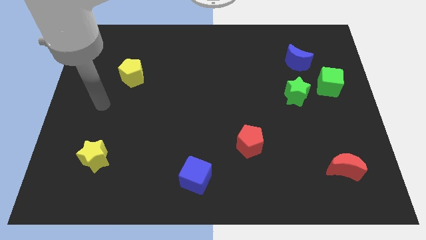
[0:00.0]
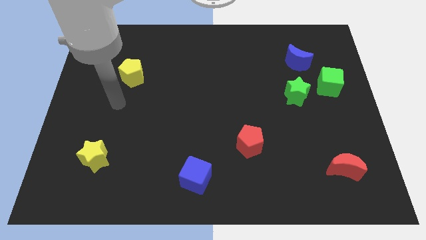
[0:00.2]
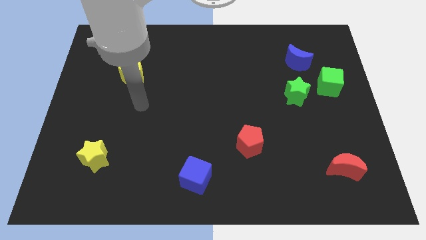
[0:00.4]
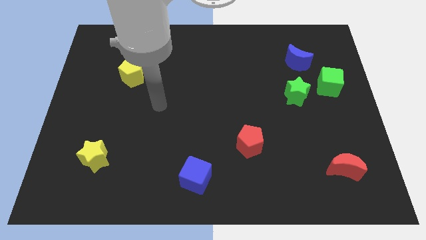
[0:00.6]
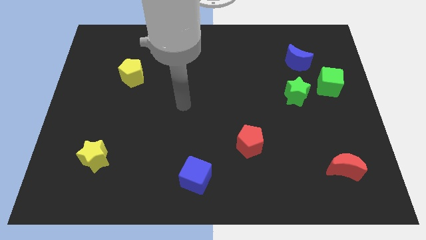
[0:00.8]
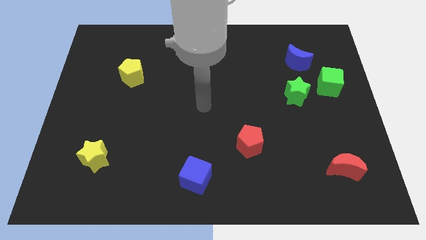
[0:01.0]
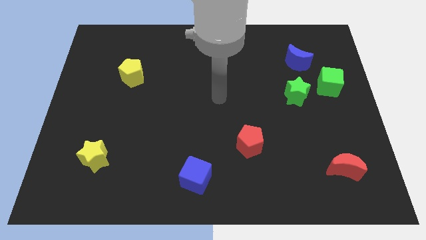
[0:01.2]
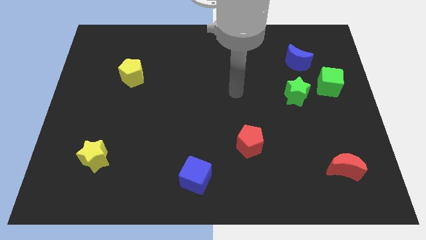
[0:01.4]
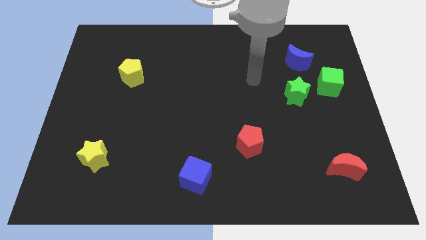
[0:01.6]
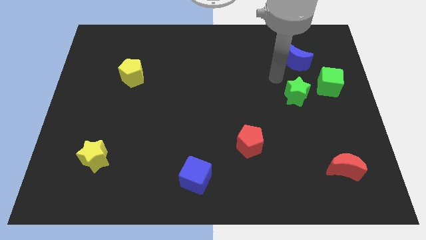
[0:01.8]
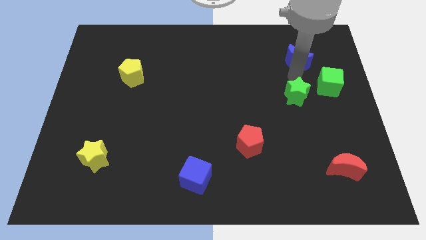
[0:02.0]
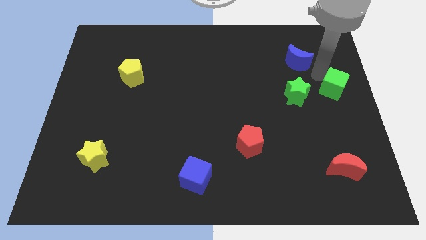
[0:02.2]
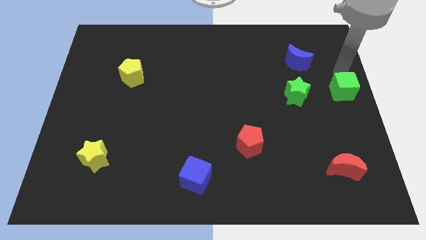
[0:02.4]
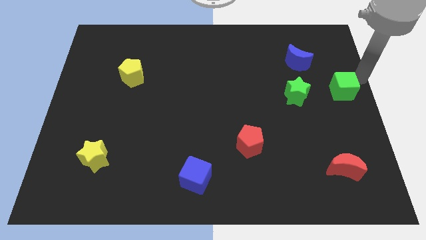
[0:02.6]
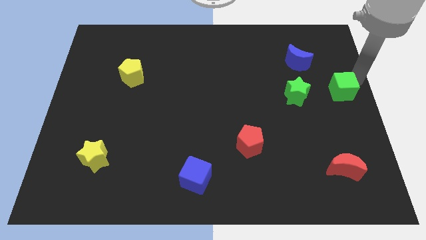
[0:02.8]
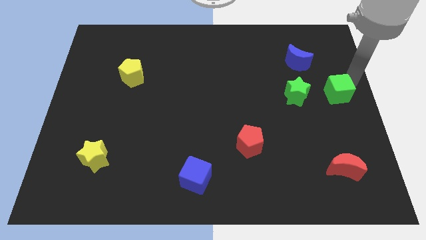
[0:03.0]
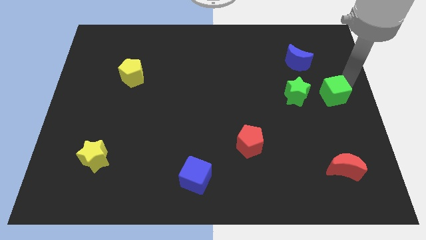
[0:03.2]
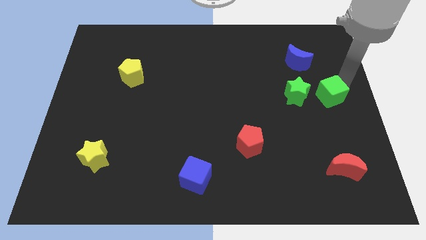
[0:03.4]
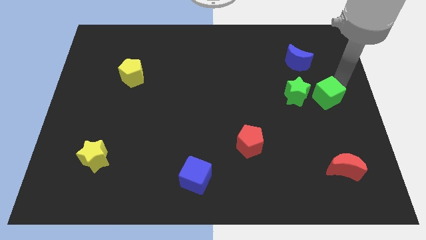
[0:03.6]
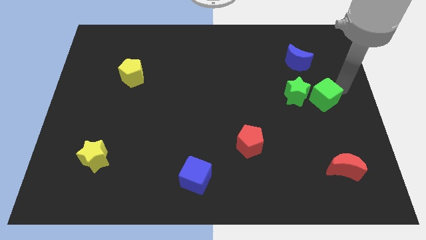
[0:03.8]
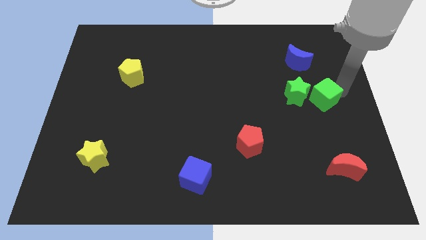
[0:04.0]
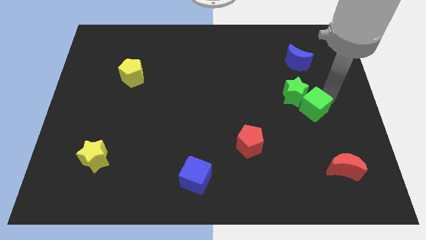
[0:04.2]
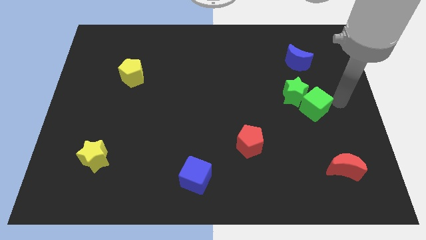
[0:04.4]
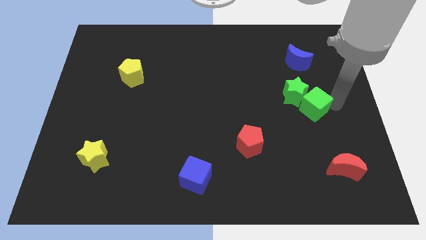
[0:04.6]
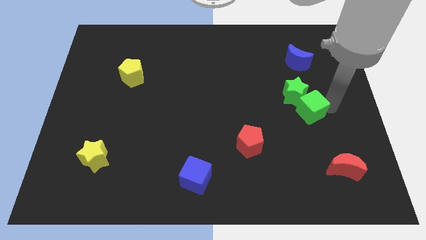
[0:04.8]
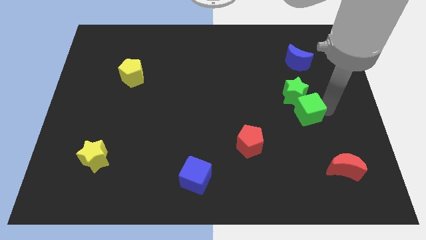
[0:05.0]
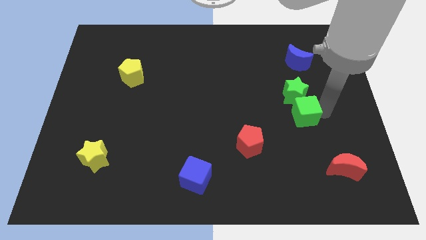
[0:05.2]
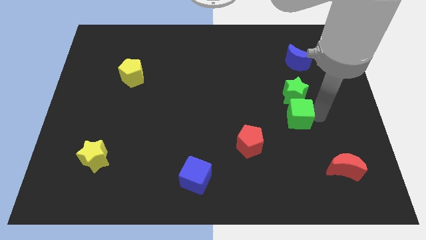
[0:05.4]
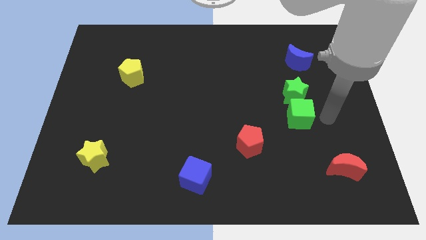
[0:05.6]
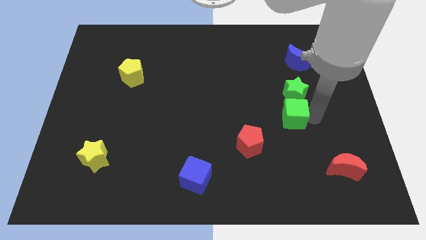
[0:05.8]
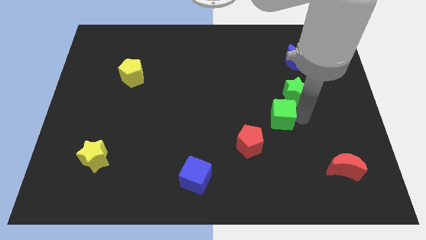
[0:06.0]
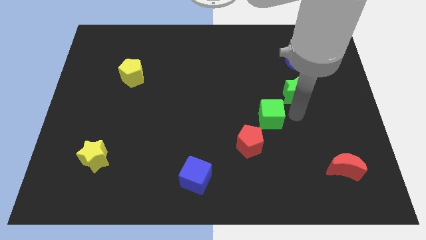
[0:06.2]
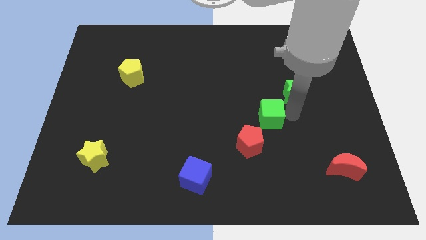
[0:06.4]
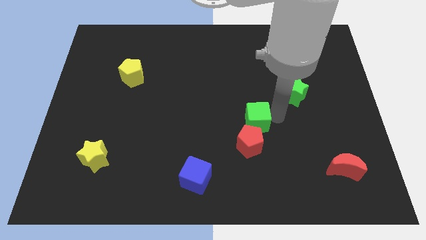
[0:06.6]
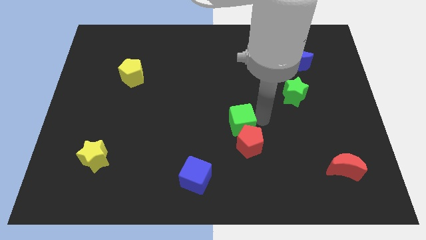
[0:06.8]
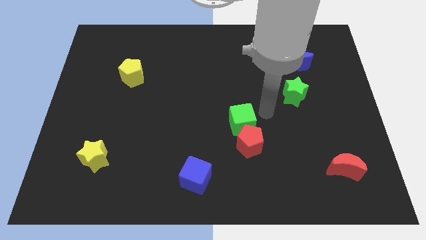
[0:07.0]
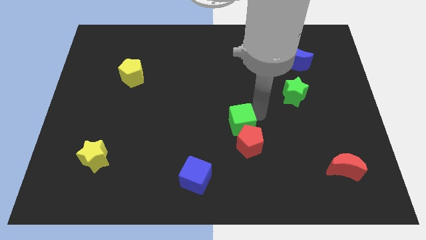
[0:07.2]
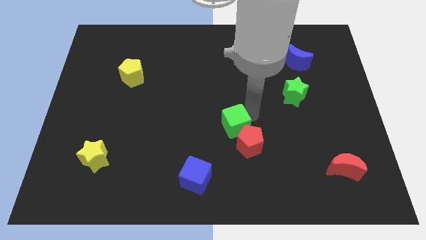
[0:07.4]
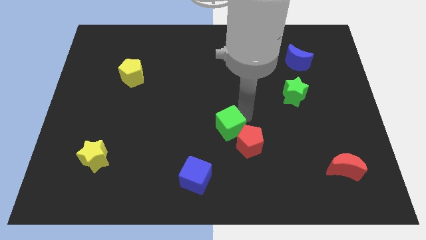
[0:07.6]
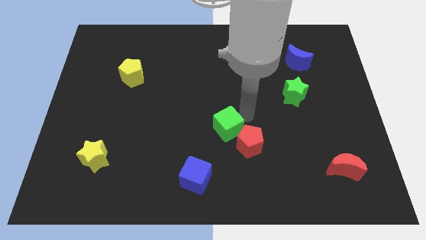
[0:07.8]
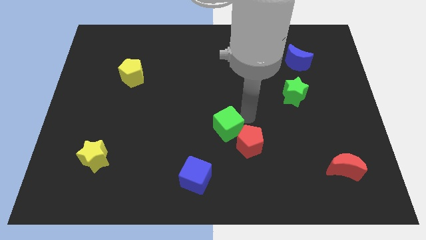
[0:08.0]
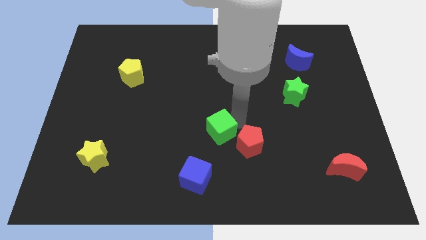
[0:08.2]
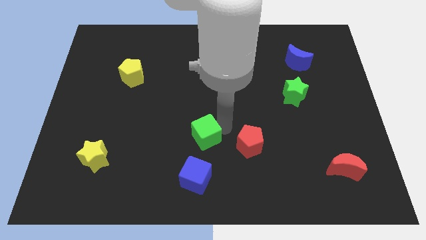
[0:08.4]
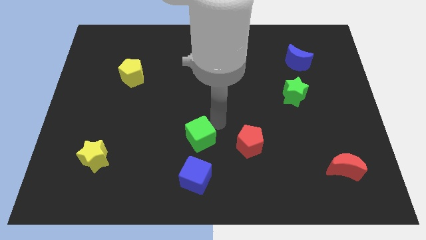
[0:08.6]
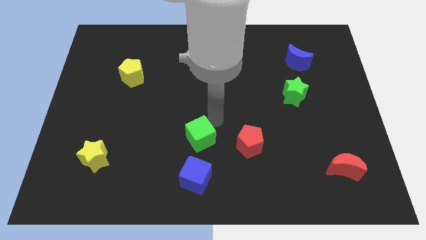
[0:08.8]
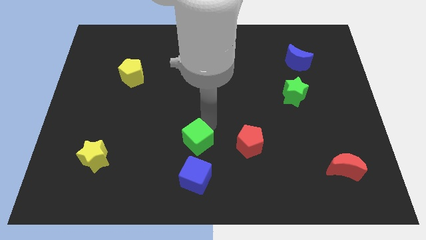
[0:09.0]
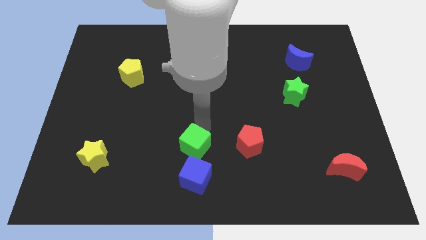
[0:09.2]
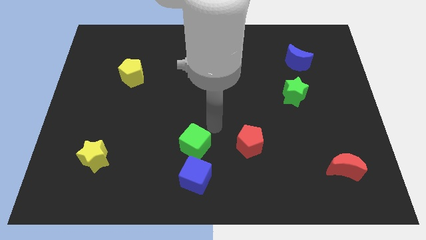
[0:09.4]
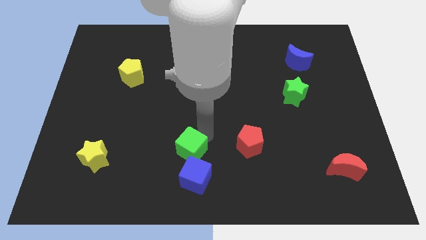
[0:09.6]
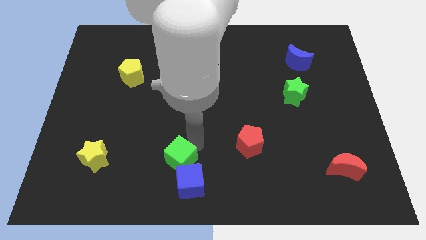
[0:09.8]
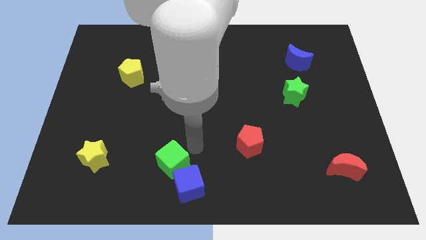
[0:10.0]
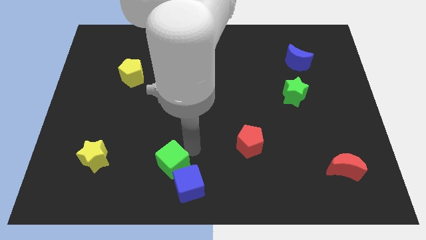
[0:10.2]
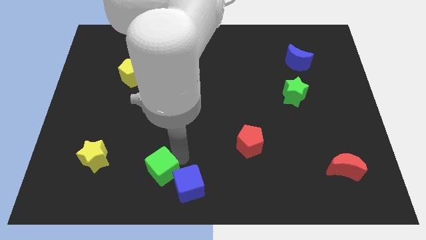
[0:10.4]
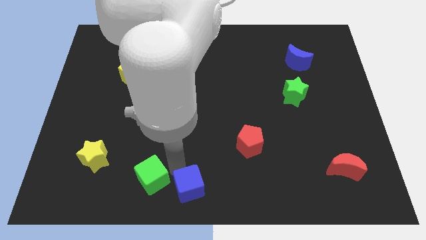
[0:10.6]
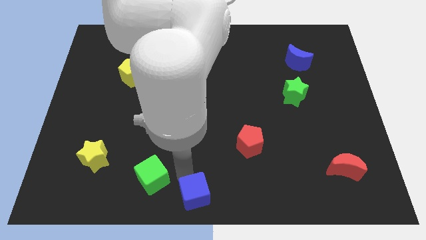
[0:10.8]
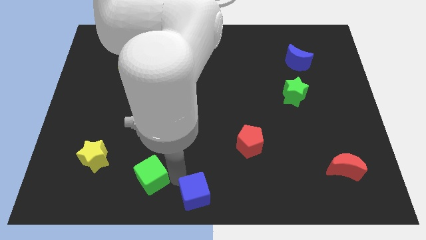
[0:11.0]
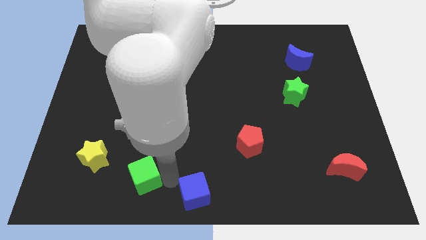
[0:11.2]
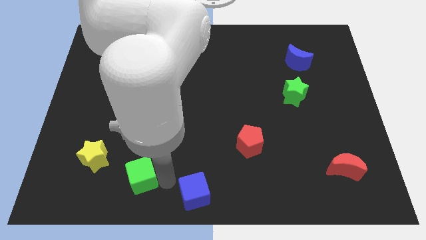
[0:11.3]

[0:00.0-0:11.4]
move the green cube diagonally down and to the right of the yellow star

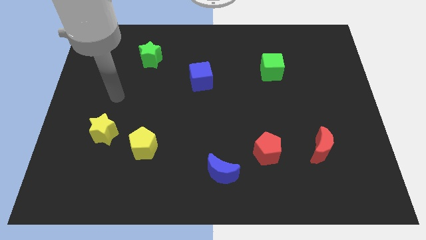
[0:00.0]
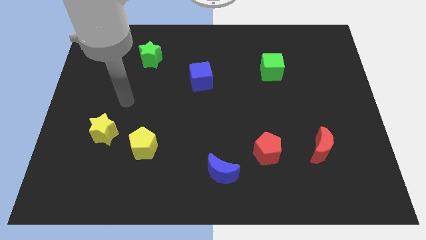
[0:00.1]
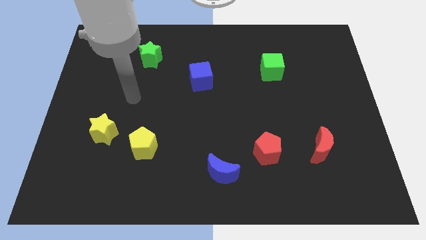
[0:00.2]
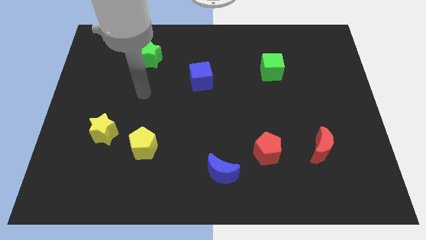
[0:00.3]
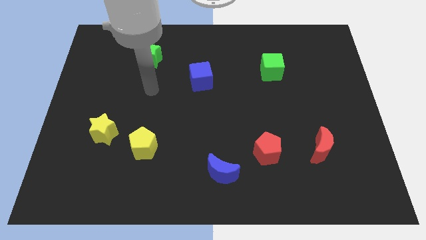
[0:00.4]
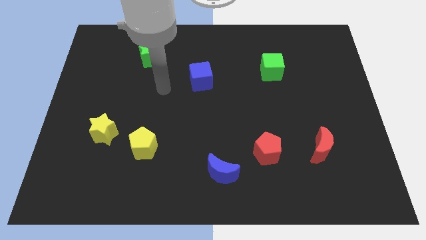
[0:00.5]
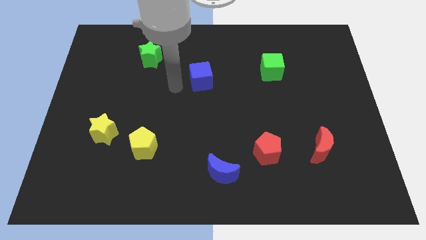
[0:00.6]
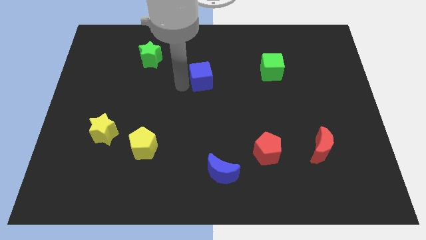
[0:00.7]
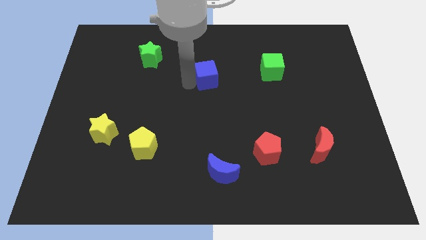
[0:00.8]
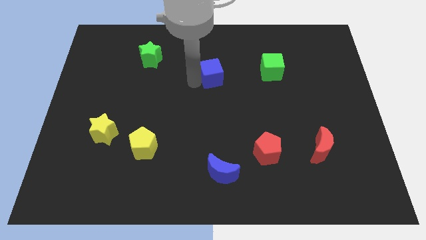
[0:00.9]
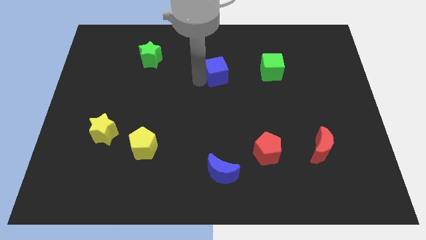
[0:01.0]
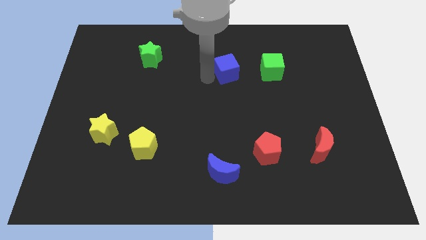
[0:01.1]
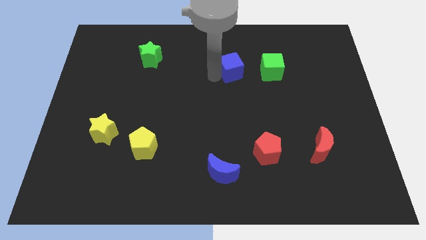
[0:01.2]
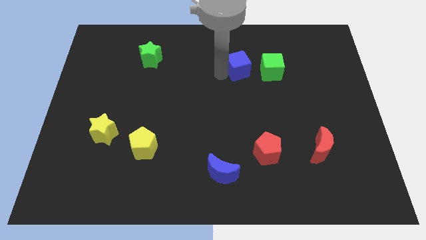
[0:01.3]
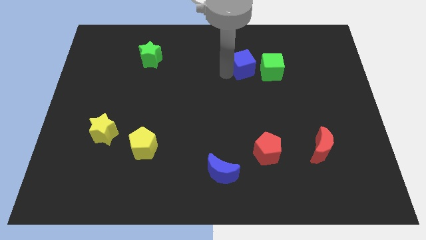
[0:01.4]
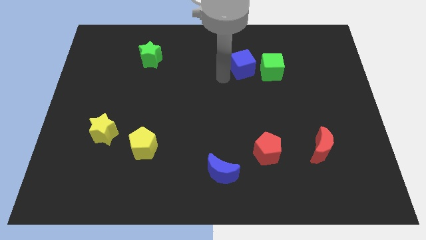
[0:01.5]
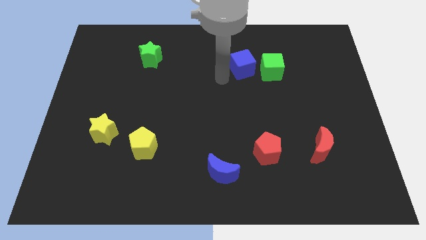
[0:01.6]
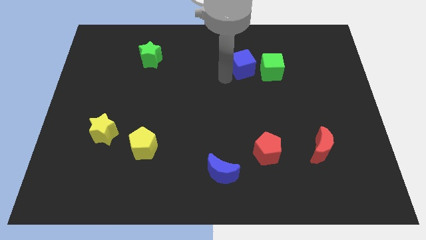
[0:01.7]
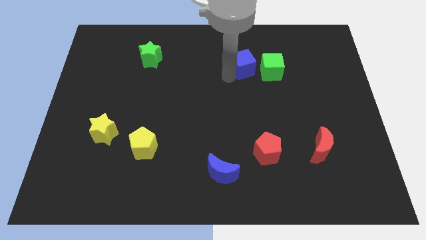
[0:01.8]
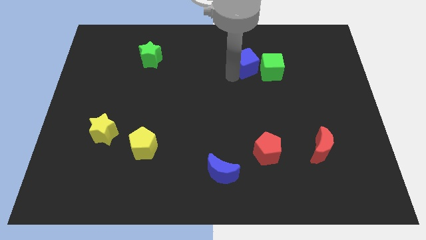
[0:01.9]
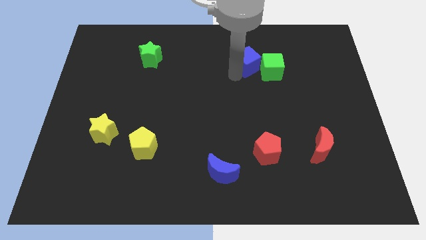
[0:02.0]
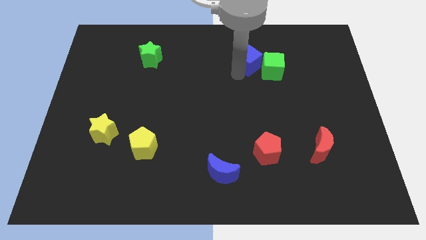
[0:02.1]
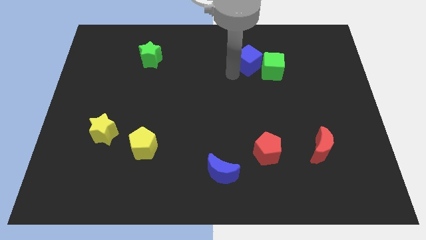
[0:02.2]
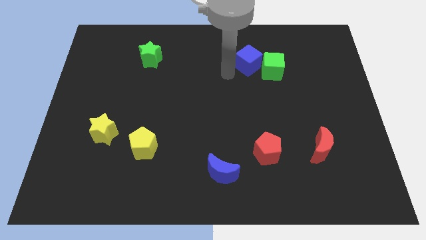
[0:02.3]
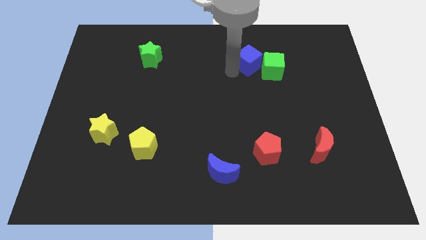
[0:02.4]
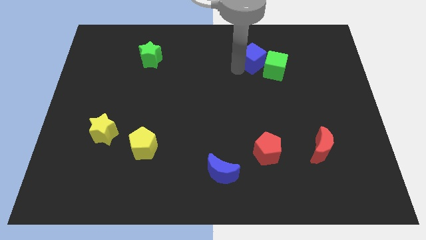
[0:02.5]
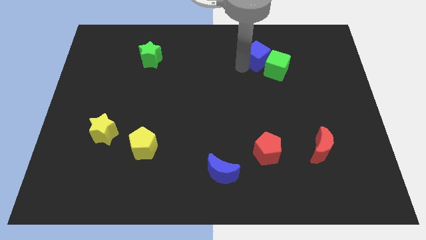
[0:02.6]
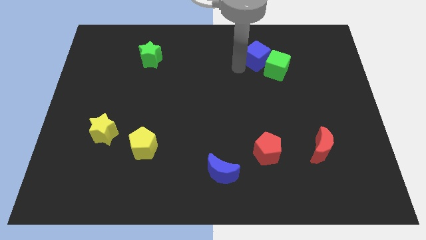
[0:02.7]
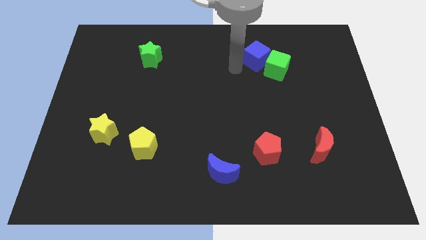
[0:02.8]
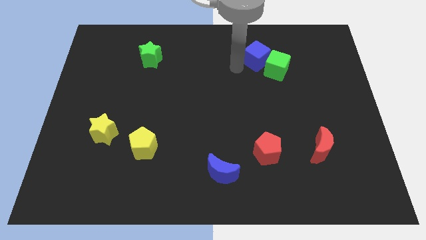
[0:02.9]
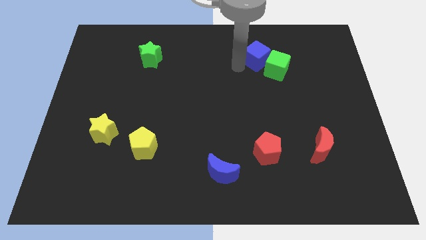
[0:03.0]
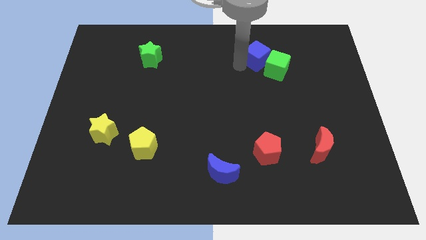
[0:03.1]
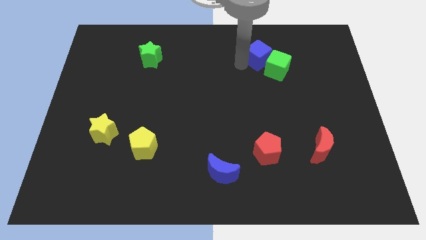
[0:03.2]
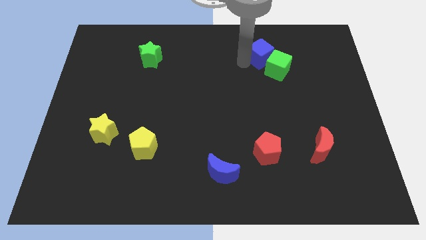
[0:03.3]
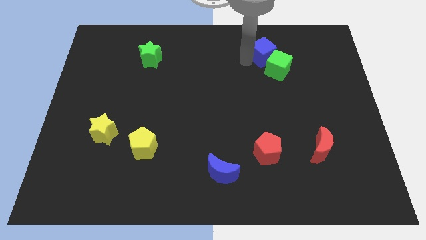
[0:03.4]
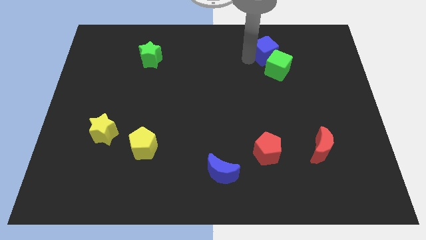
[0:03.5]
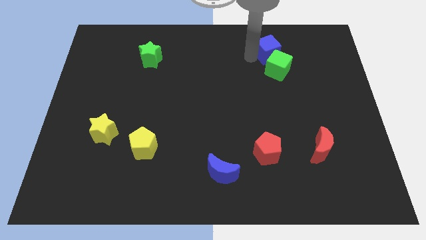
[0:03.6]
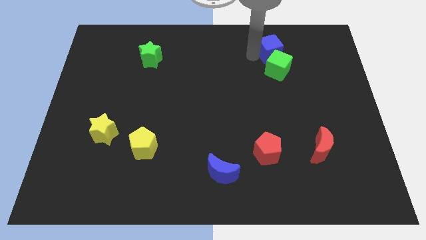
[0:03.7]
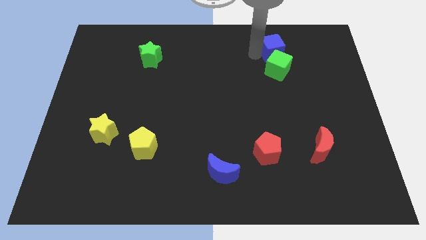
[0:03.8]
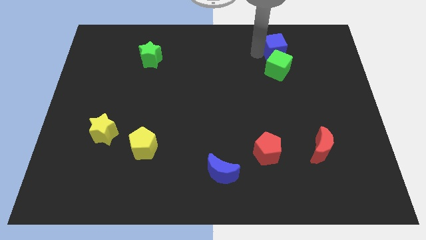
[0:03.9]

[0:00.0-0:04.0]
put the blue cube diagonally up and to the right of the green cube
